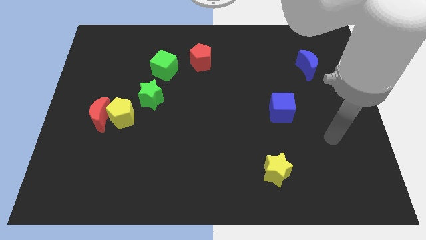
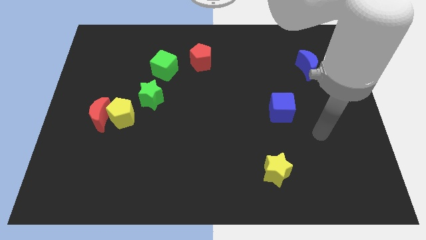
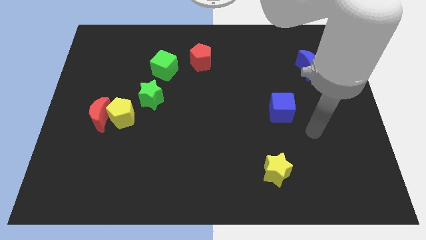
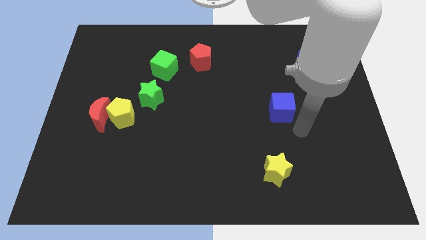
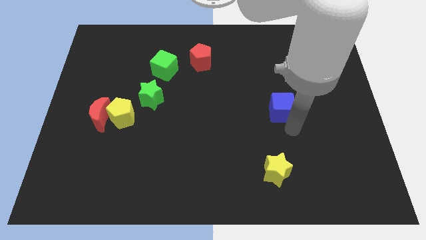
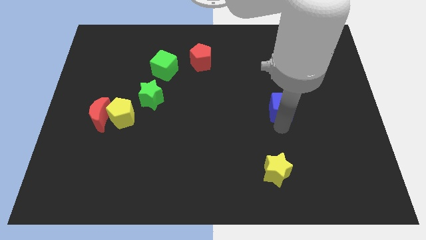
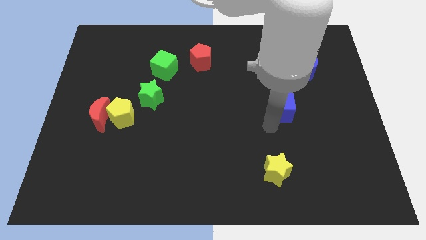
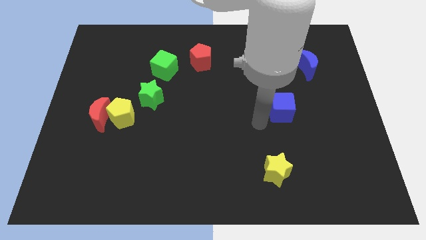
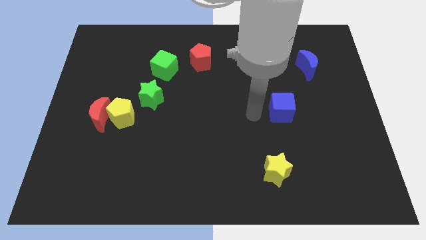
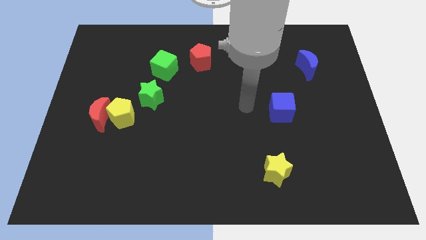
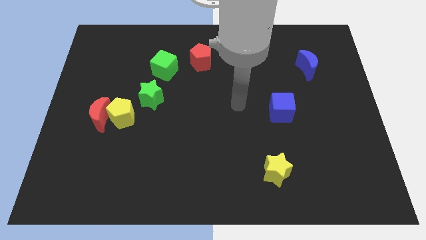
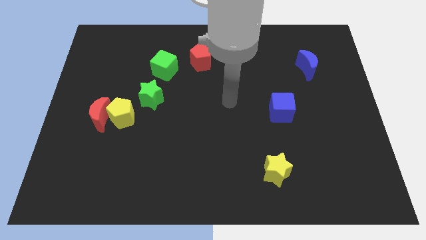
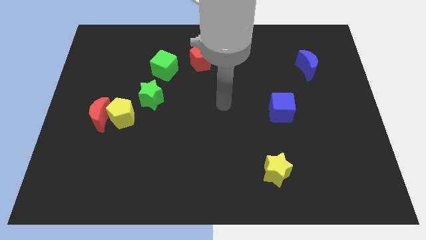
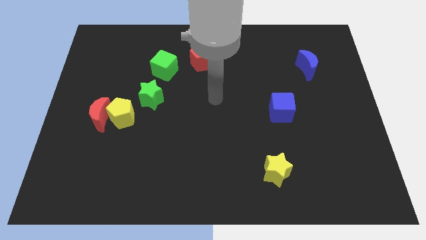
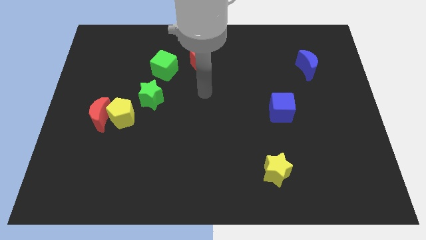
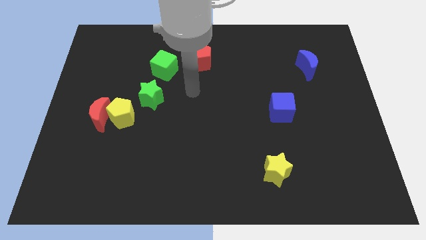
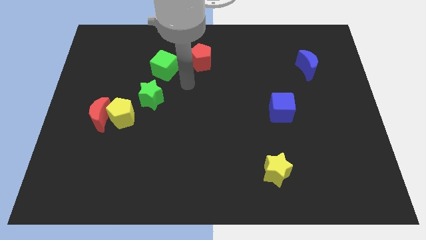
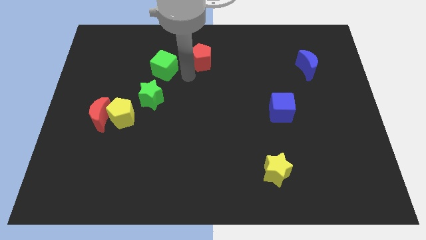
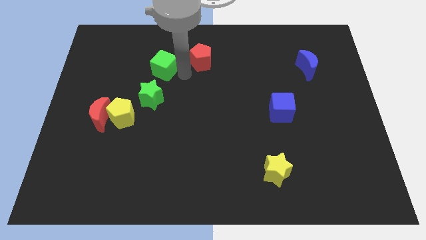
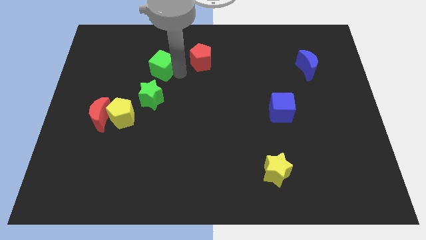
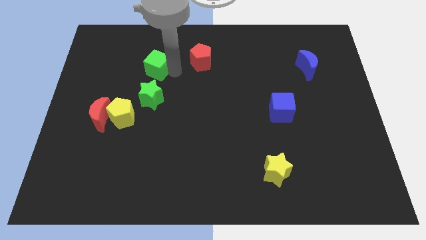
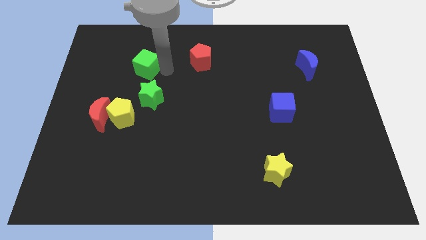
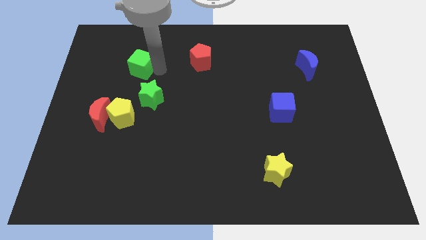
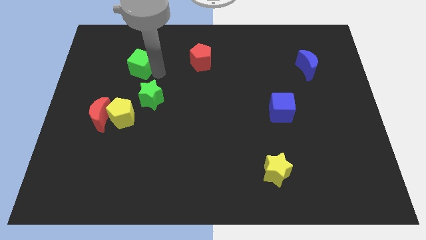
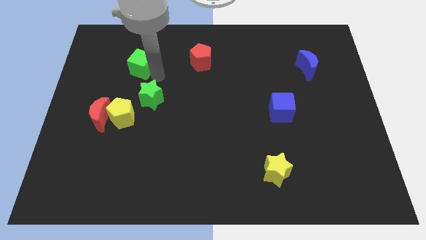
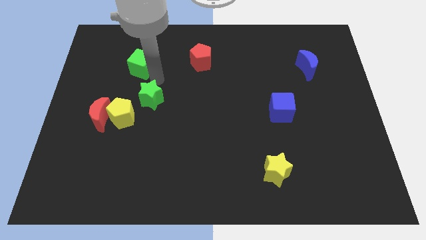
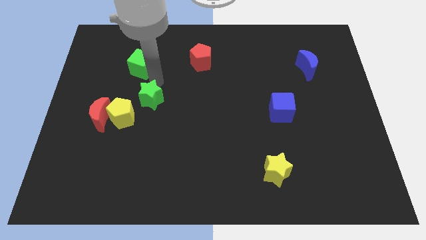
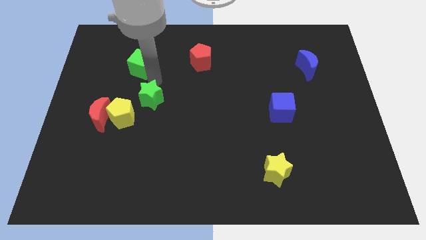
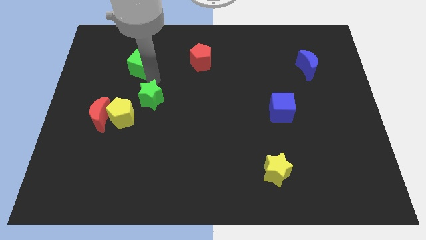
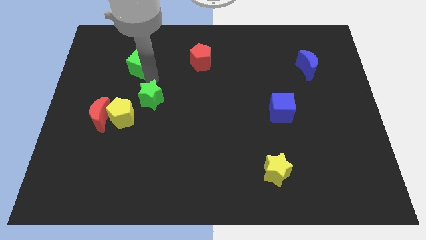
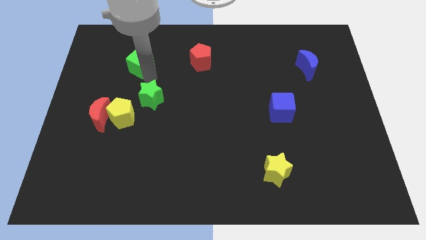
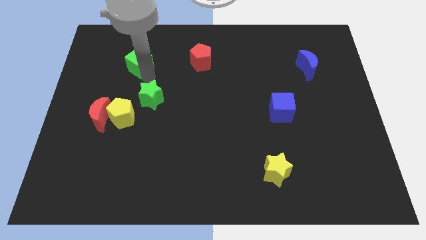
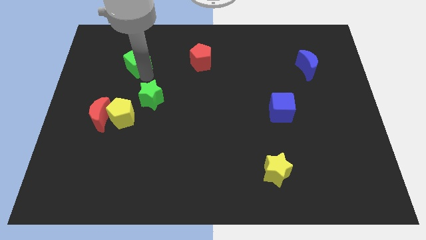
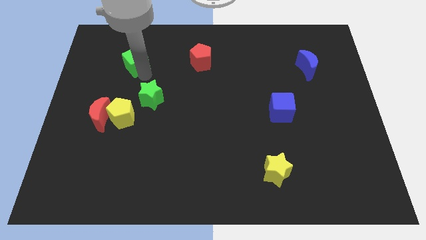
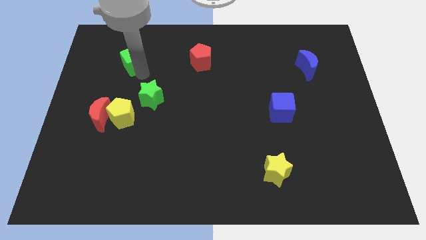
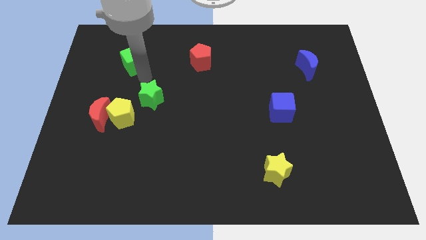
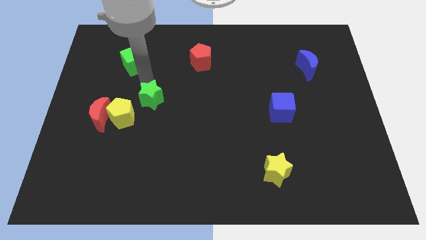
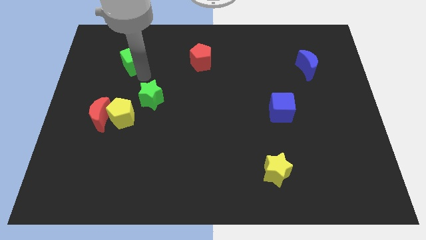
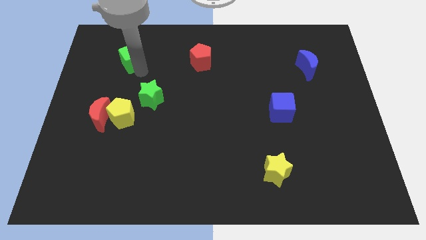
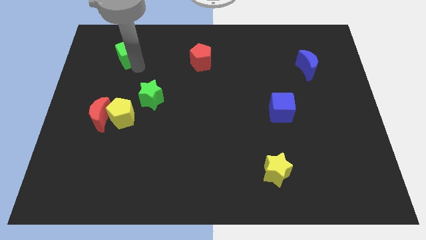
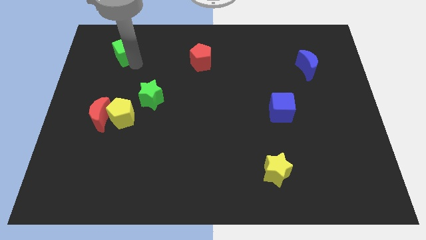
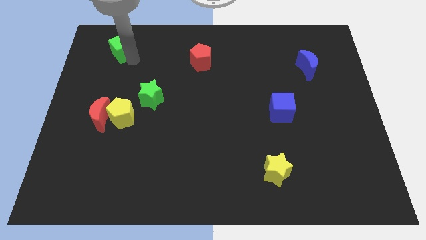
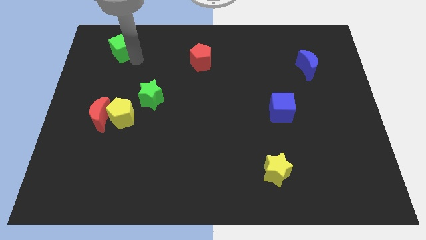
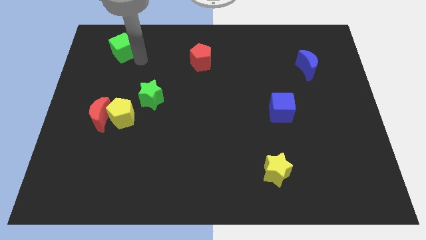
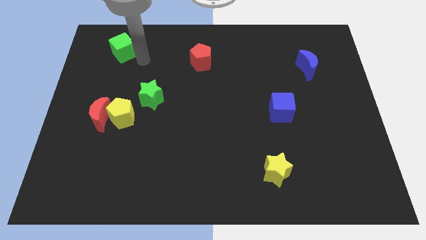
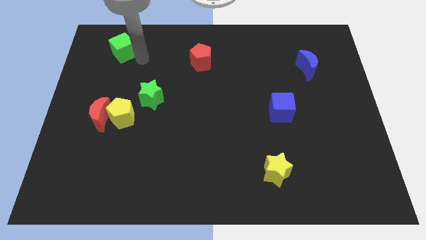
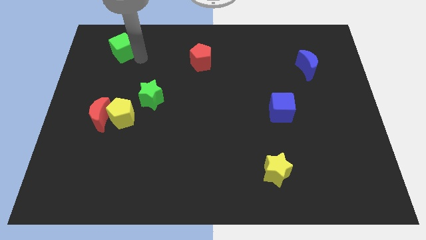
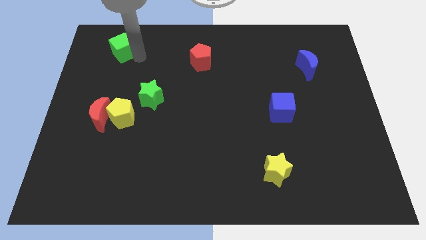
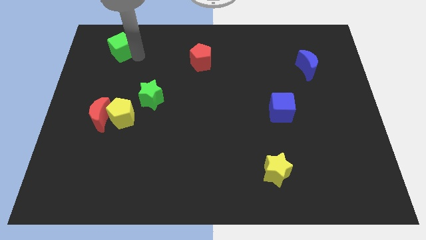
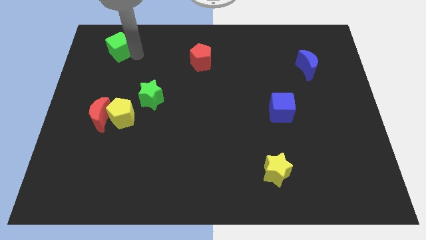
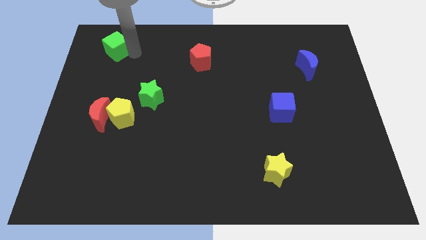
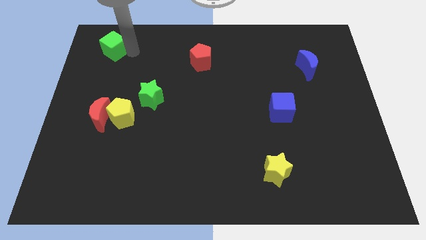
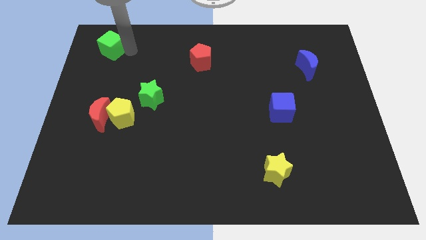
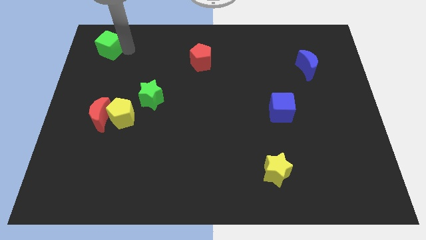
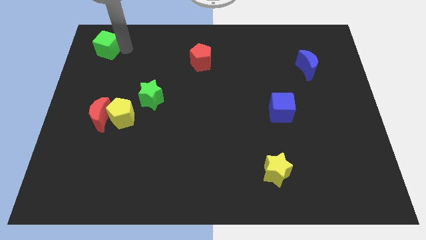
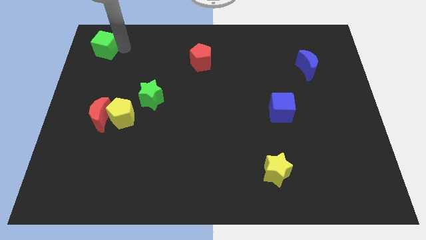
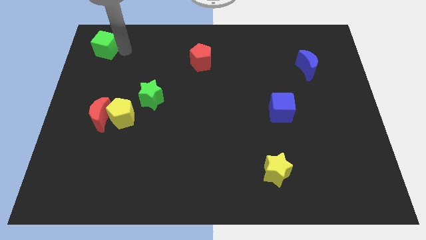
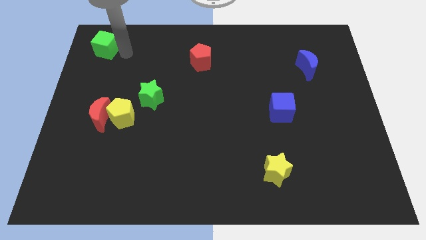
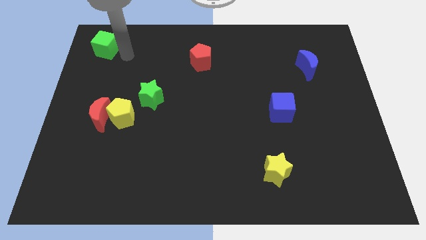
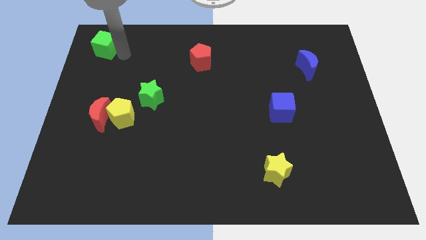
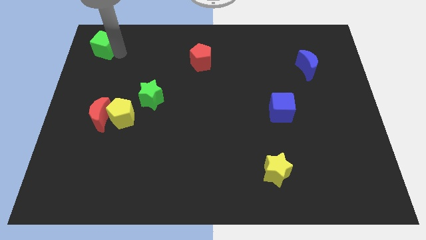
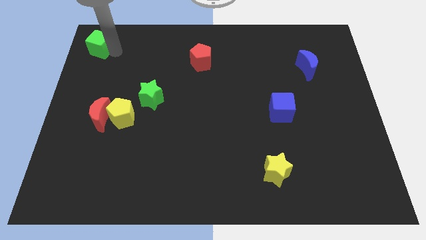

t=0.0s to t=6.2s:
slide the green cube to the top left
